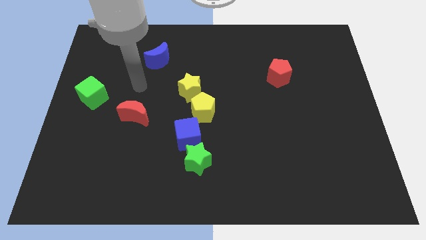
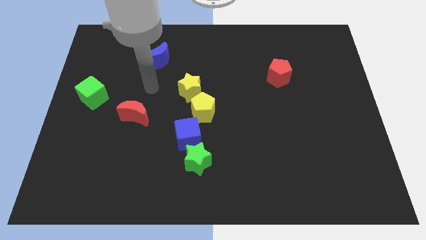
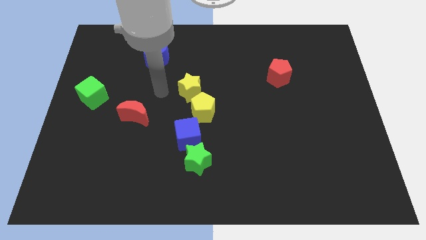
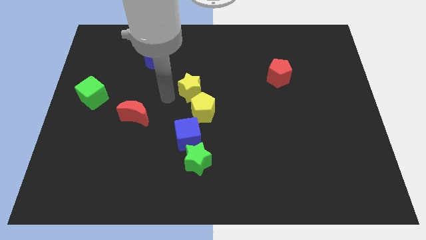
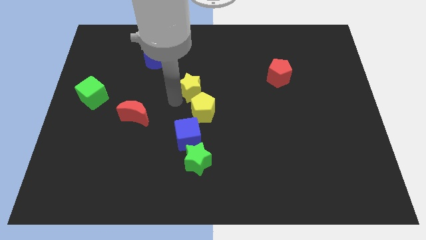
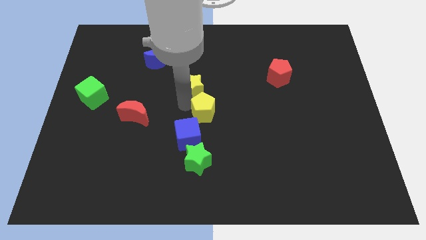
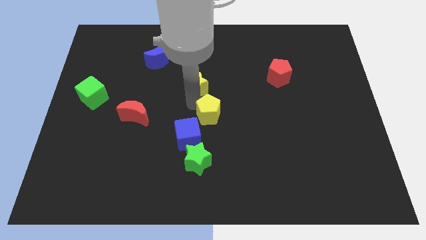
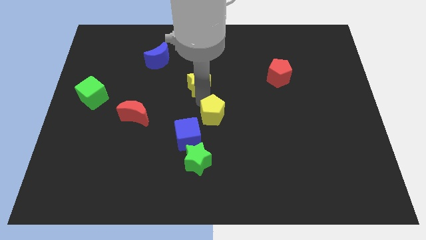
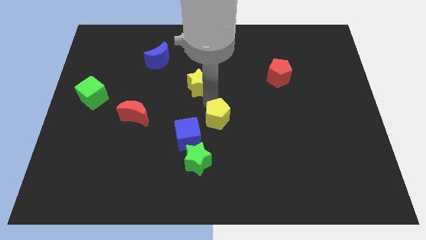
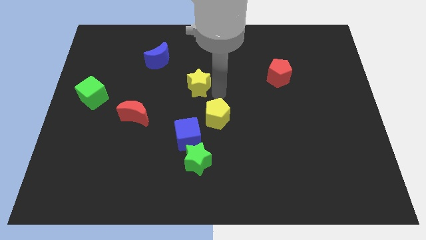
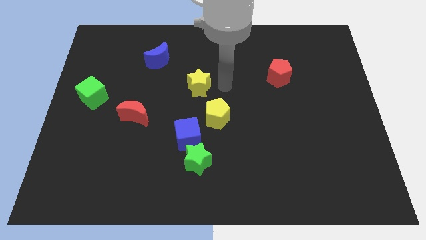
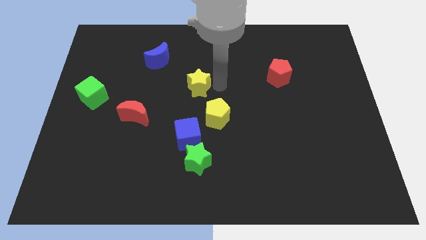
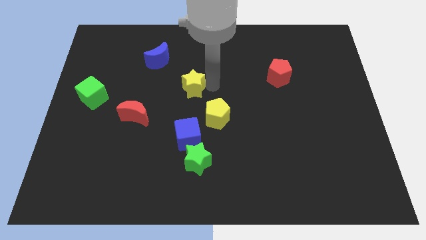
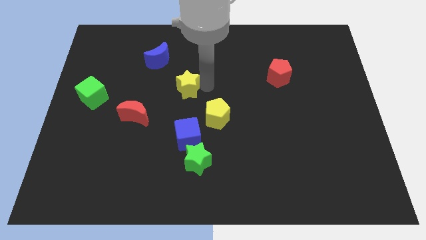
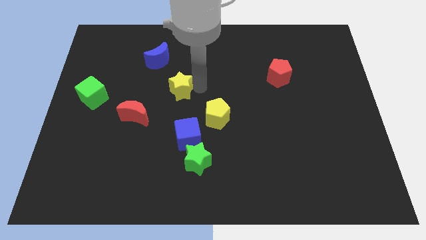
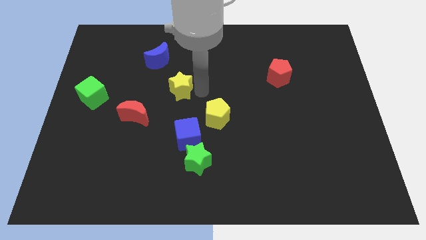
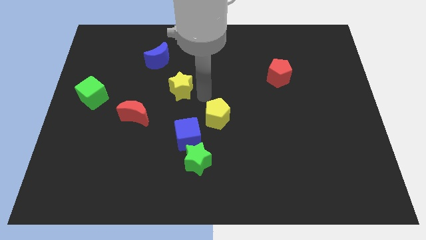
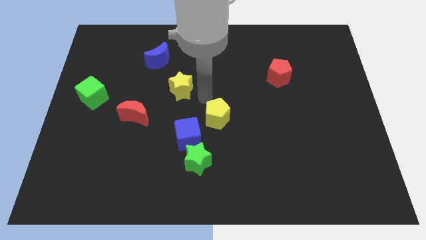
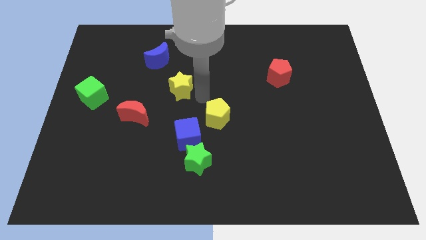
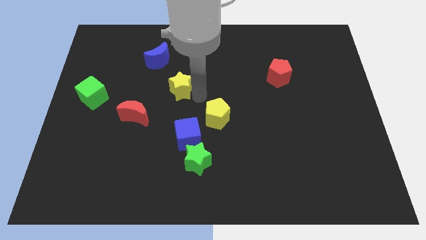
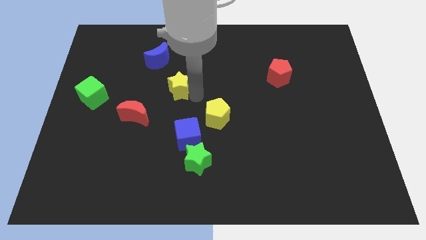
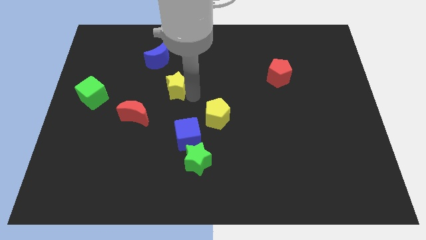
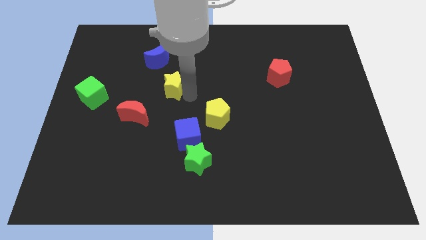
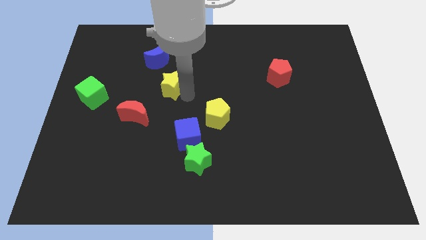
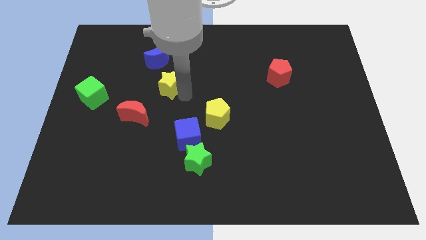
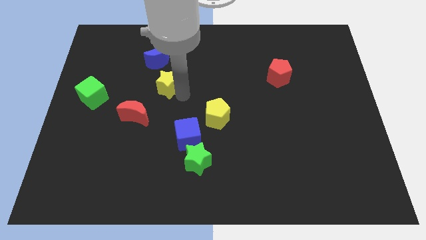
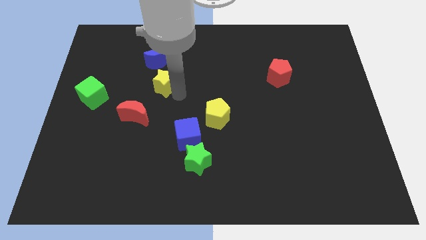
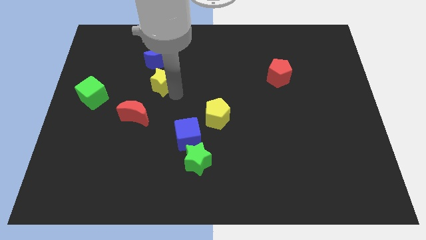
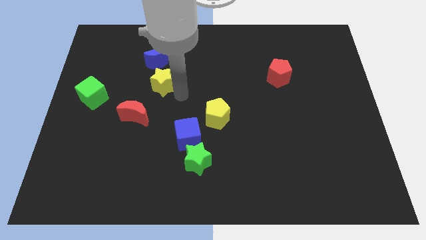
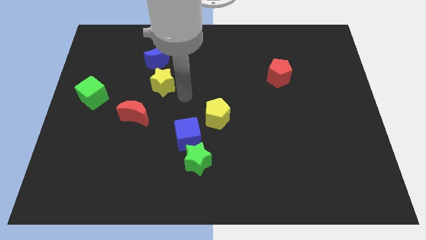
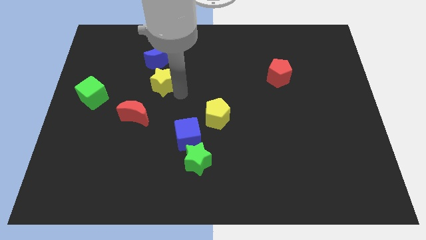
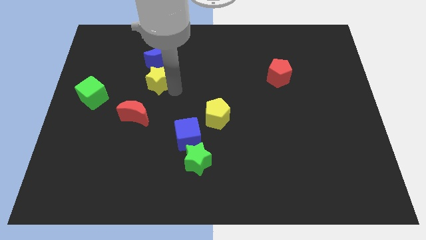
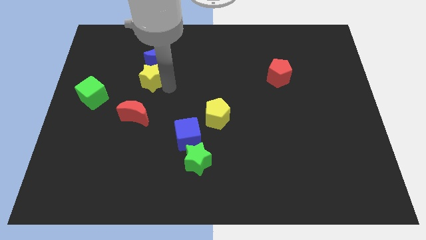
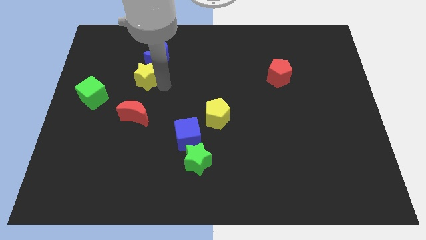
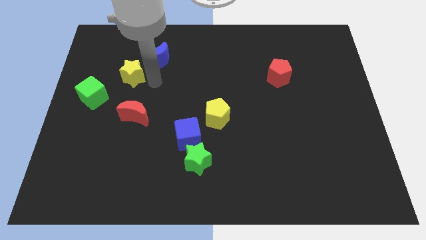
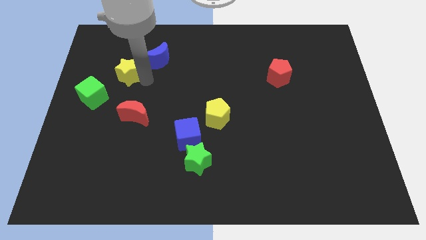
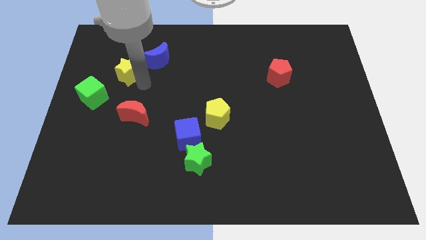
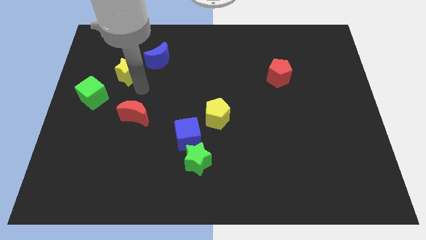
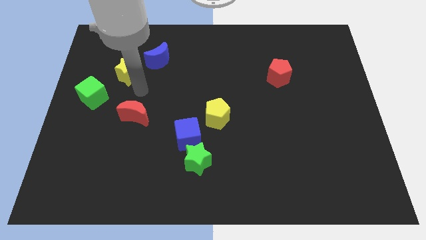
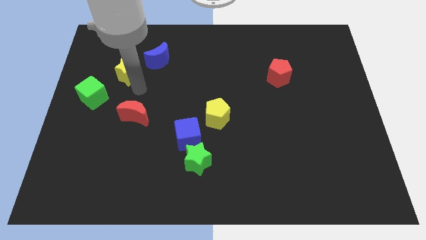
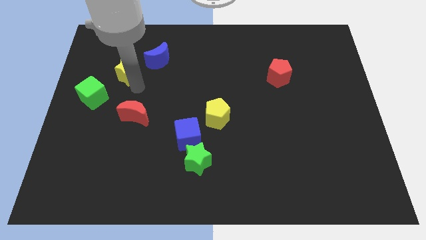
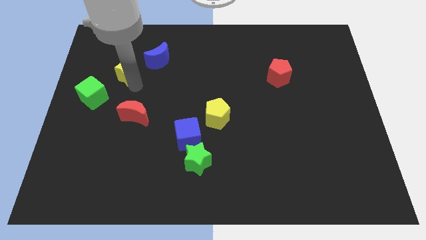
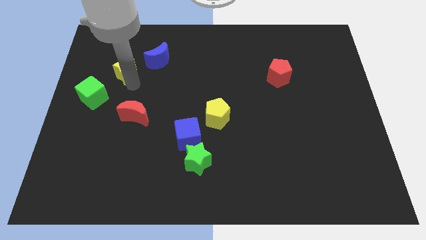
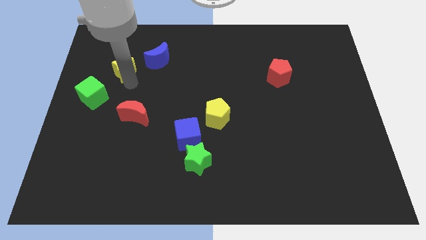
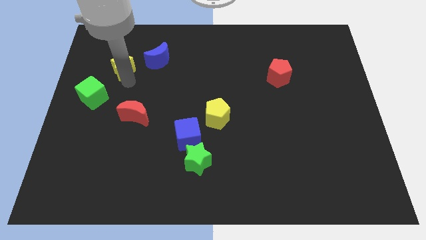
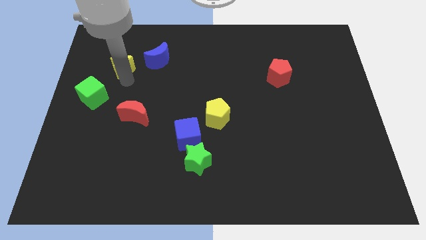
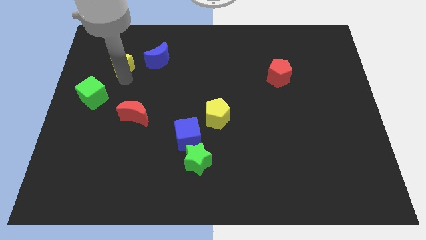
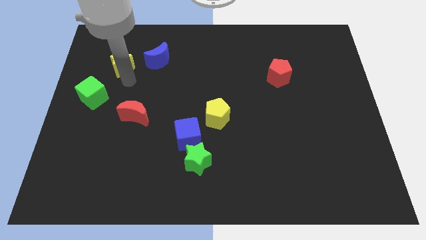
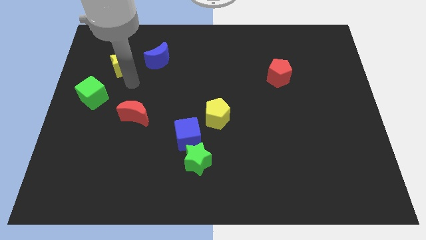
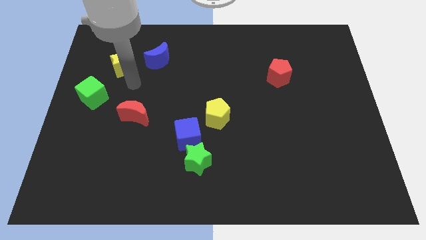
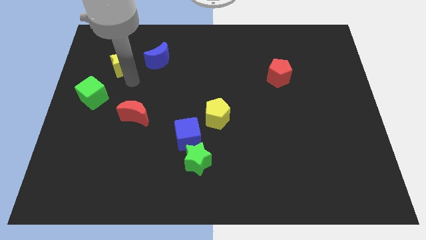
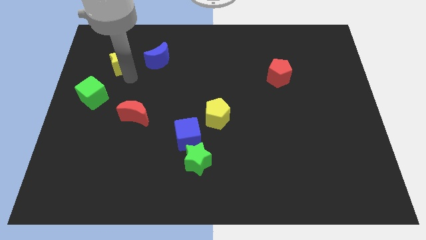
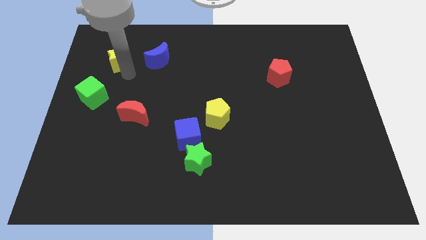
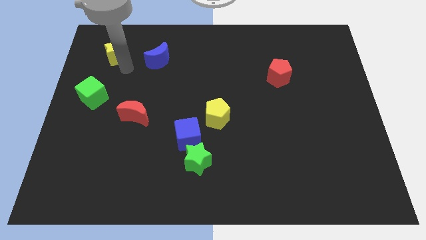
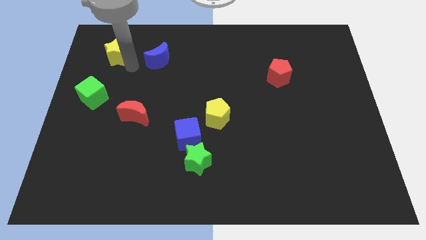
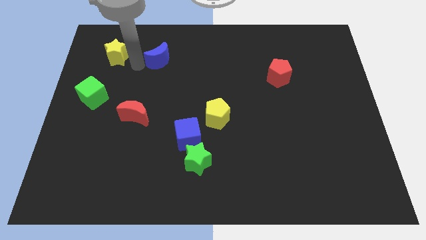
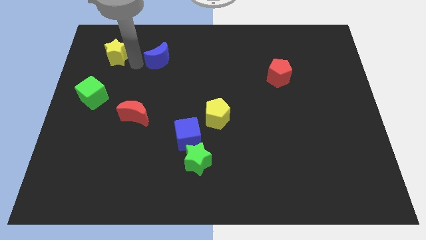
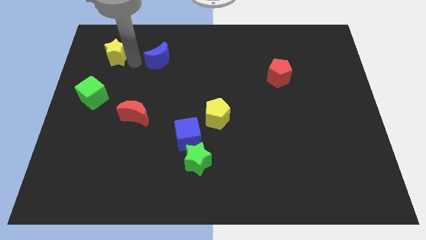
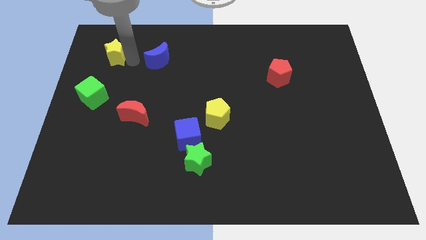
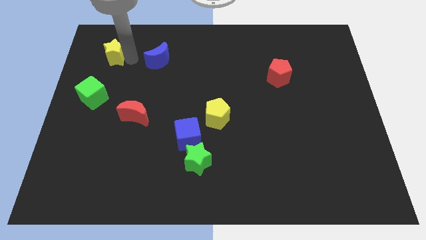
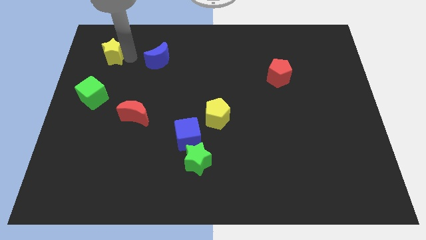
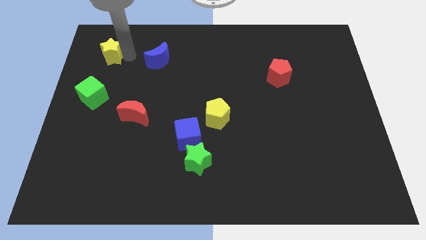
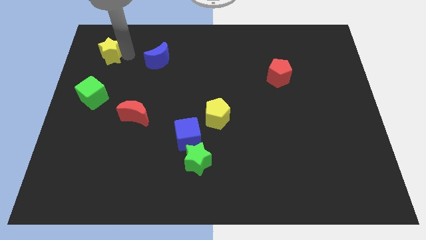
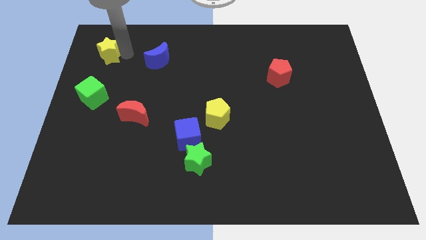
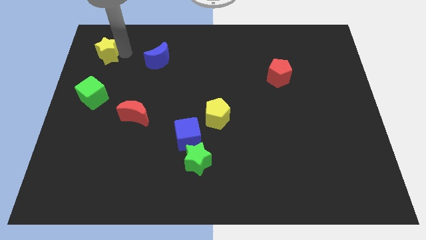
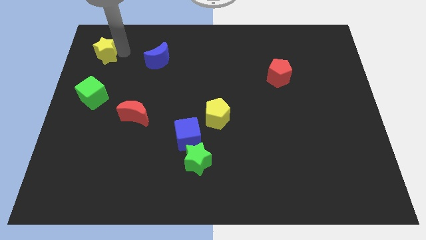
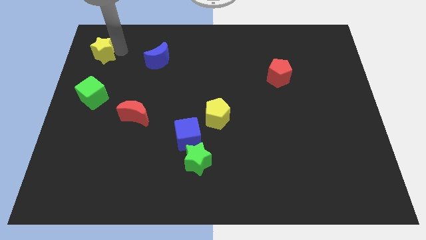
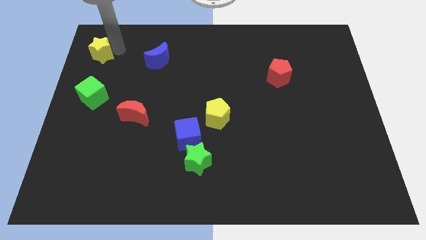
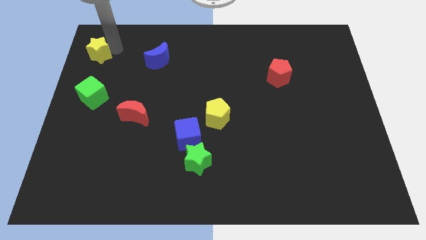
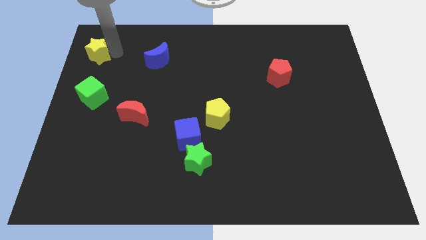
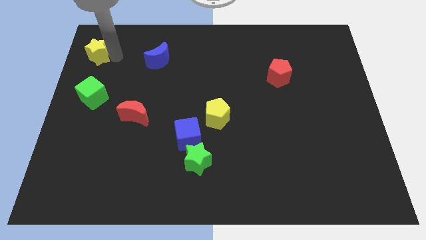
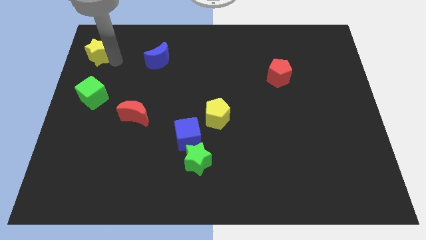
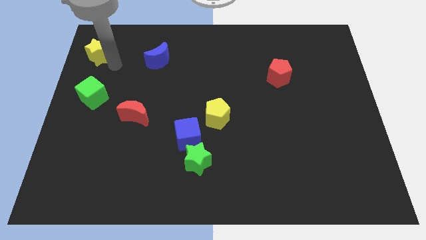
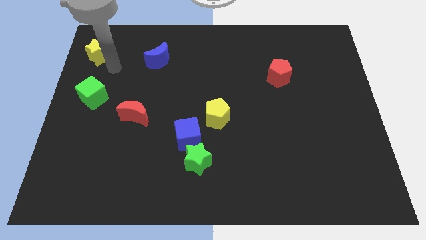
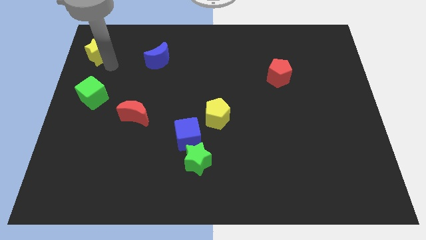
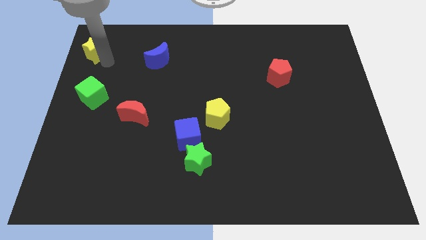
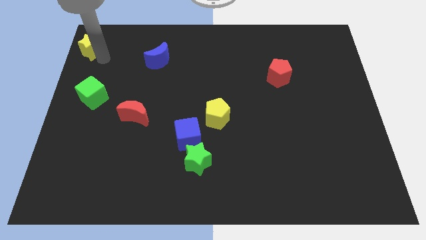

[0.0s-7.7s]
put the yellow star to the top left corner
